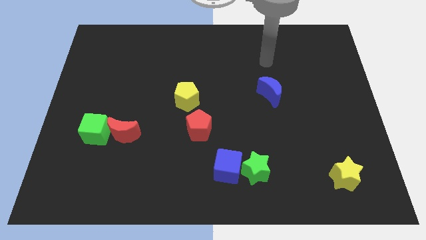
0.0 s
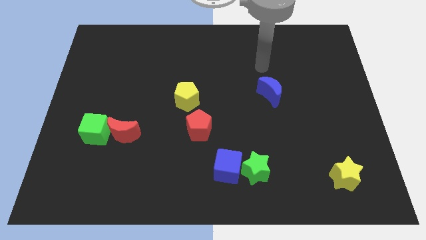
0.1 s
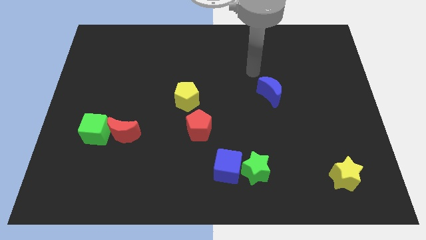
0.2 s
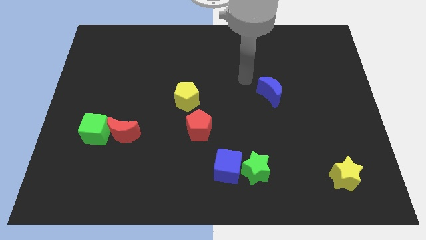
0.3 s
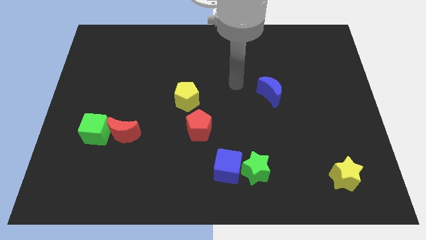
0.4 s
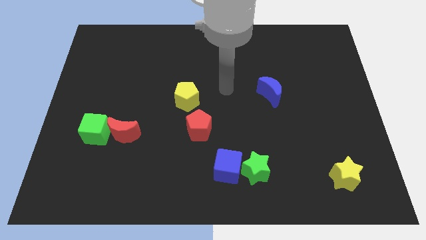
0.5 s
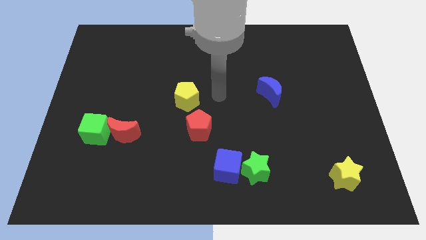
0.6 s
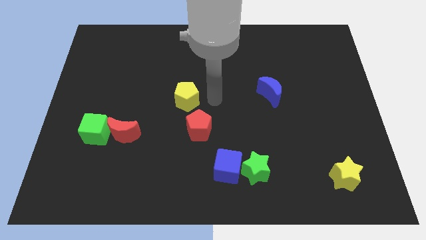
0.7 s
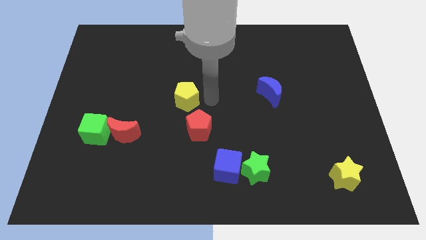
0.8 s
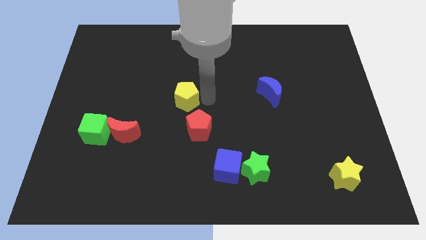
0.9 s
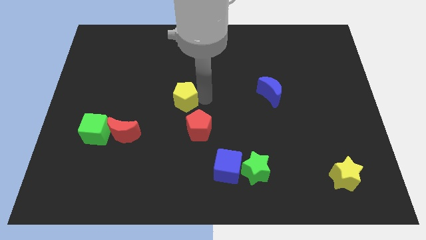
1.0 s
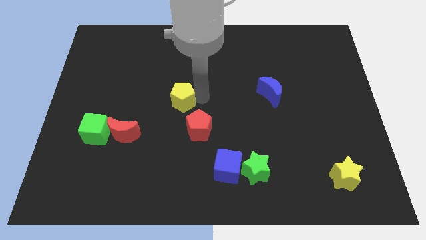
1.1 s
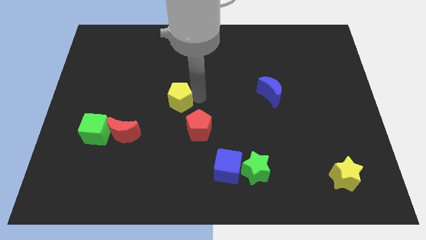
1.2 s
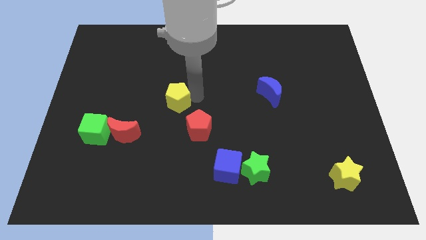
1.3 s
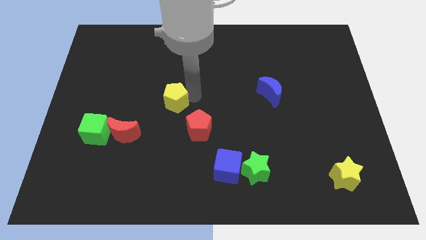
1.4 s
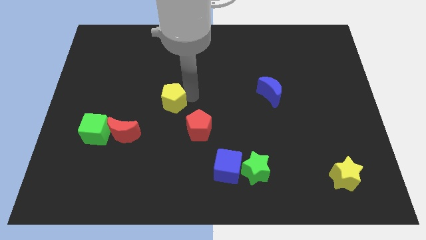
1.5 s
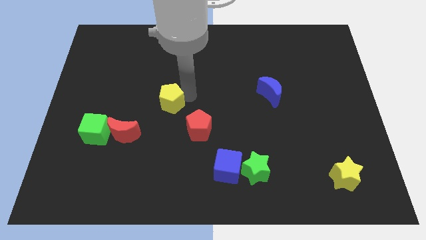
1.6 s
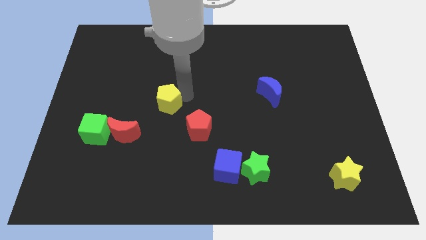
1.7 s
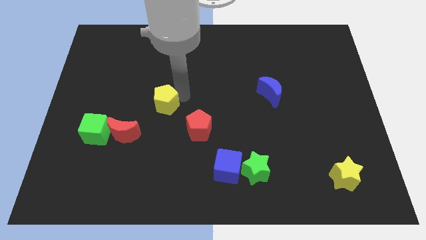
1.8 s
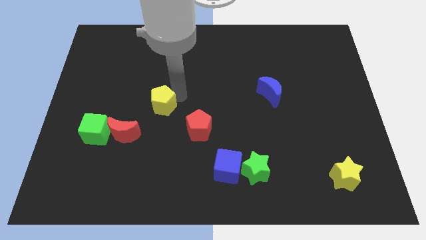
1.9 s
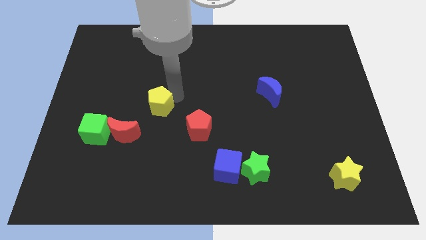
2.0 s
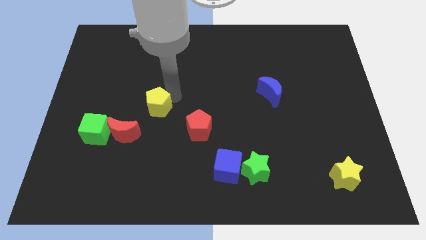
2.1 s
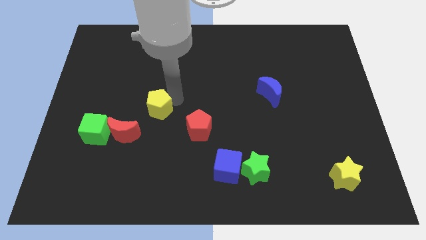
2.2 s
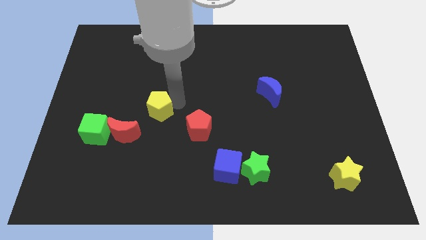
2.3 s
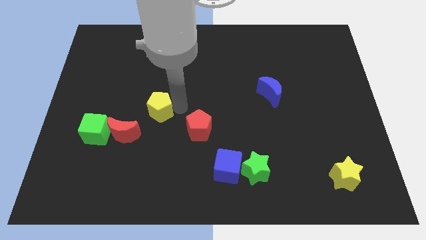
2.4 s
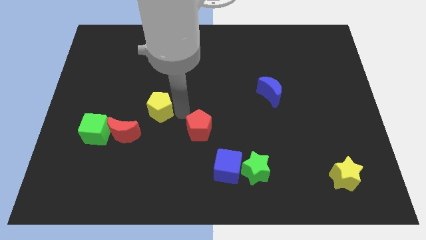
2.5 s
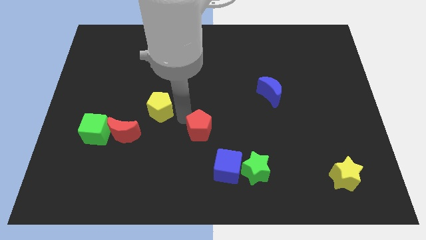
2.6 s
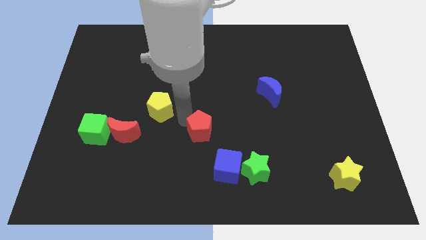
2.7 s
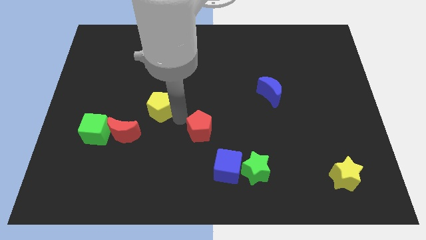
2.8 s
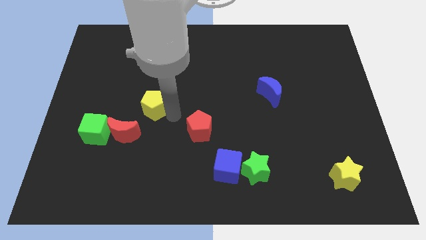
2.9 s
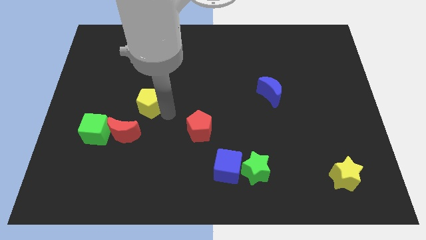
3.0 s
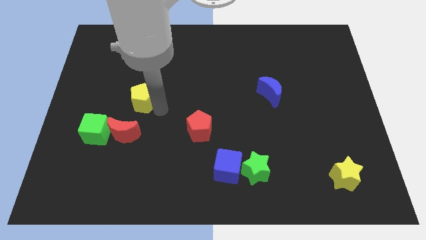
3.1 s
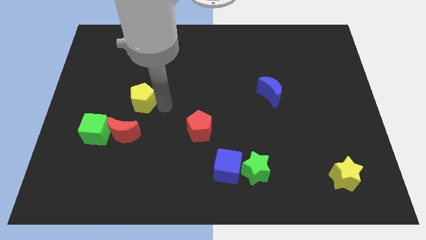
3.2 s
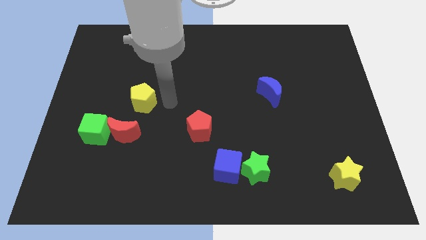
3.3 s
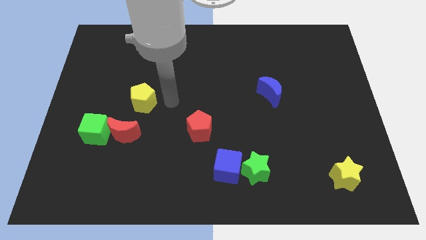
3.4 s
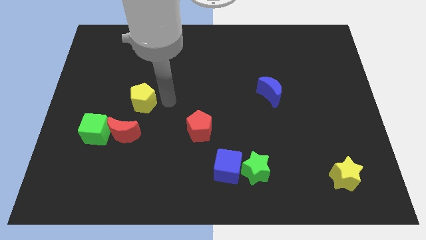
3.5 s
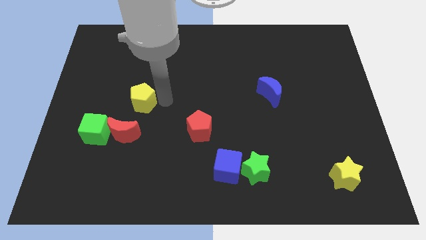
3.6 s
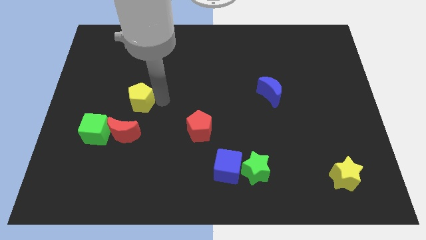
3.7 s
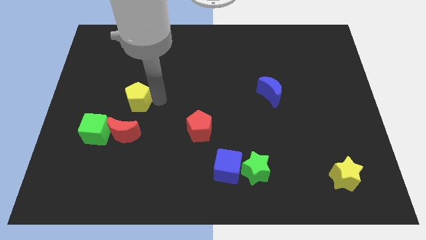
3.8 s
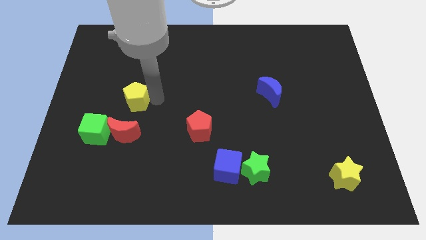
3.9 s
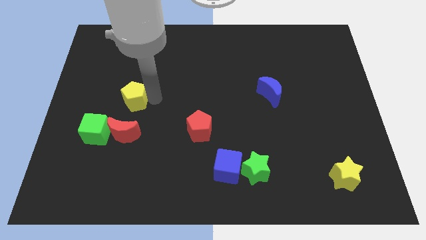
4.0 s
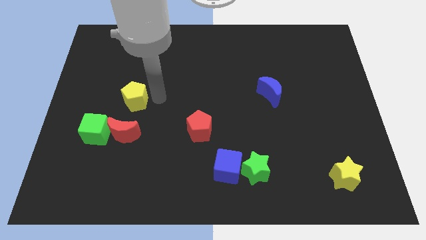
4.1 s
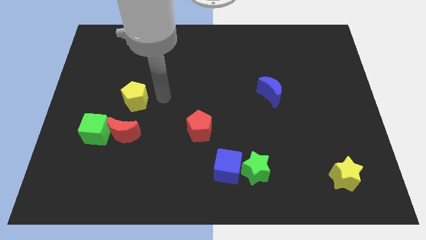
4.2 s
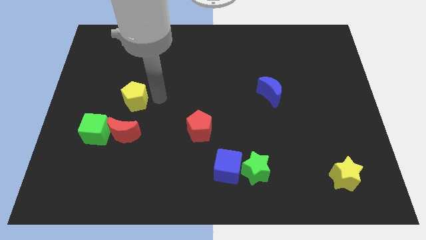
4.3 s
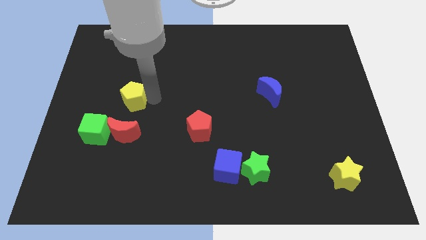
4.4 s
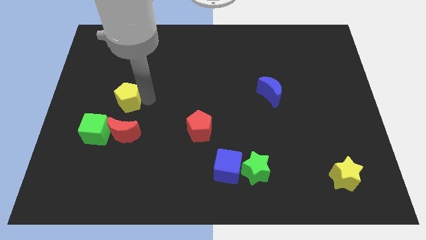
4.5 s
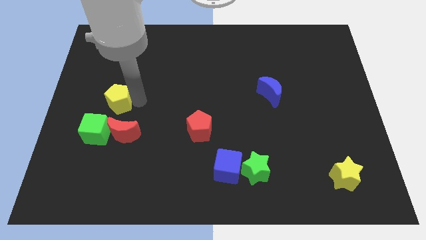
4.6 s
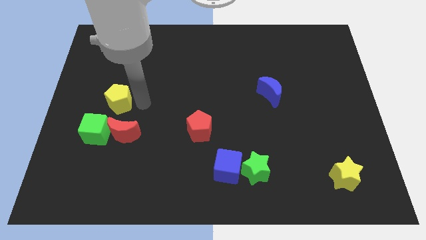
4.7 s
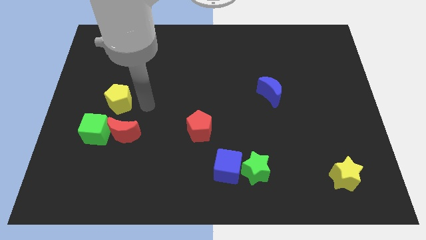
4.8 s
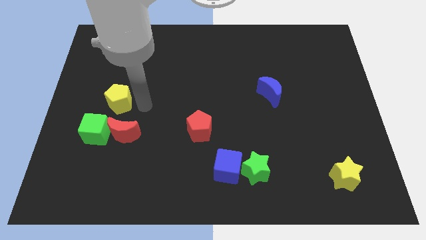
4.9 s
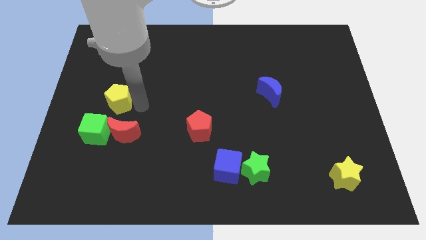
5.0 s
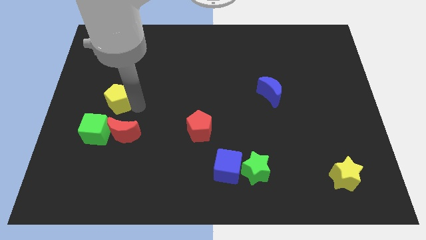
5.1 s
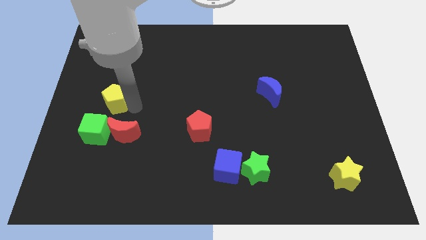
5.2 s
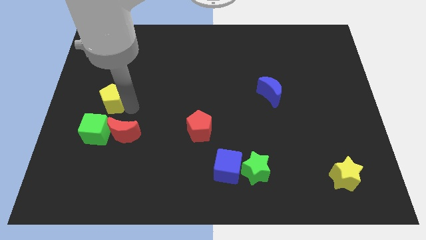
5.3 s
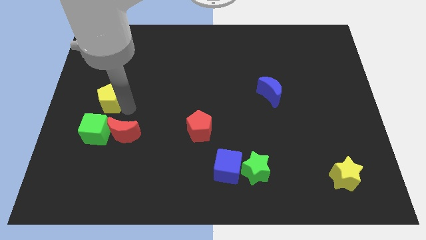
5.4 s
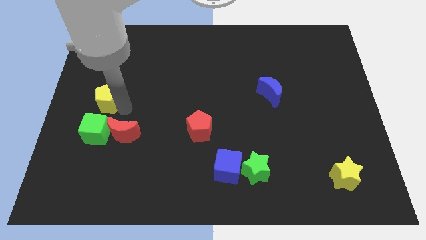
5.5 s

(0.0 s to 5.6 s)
push the yellow pentagon to the left side

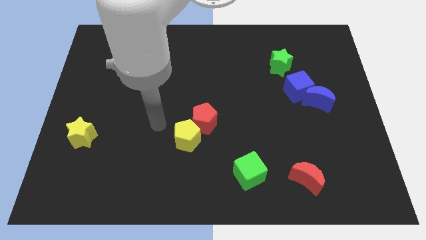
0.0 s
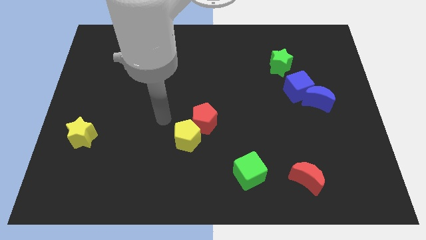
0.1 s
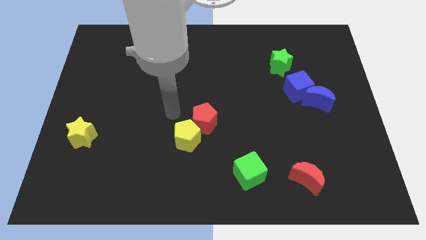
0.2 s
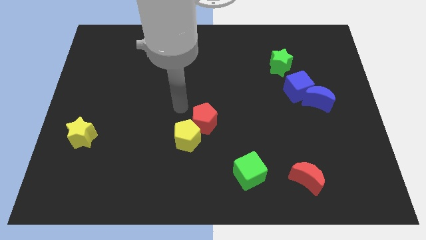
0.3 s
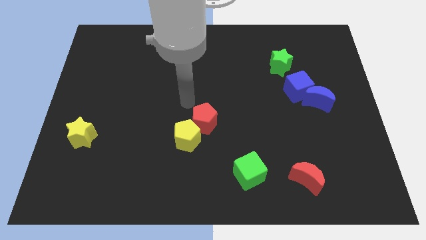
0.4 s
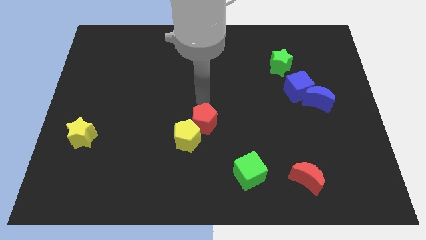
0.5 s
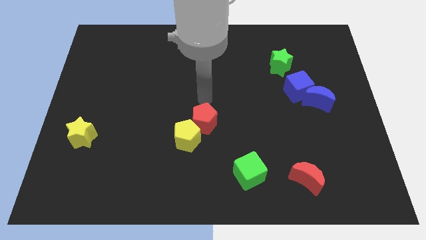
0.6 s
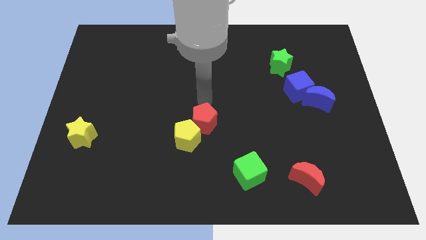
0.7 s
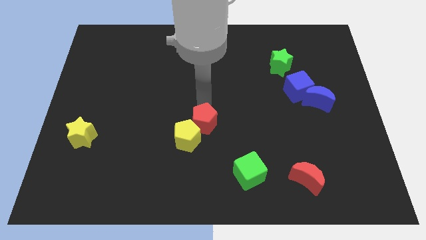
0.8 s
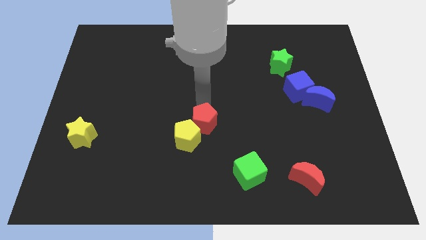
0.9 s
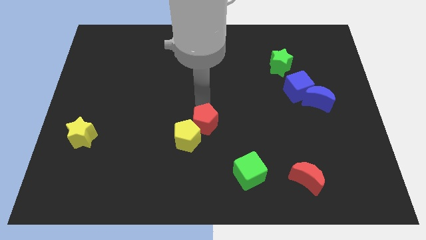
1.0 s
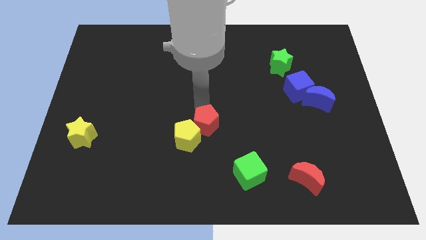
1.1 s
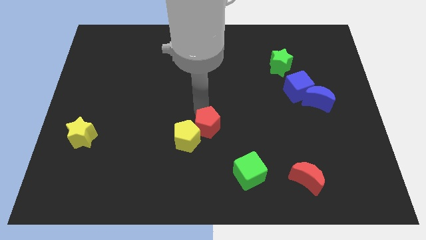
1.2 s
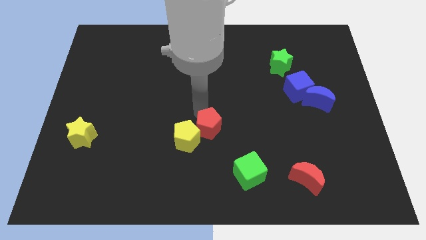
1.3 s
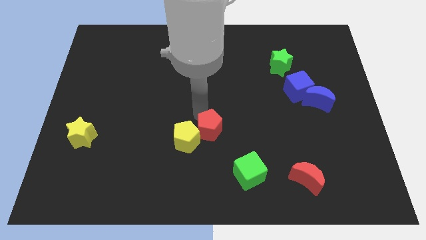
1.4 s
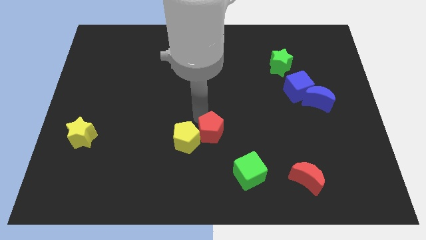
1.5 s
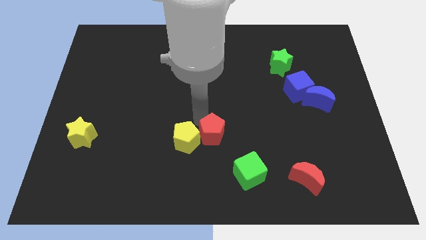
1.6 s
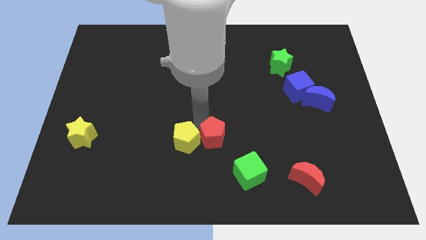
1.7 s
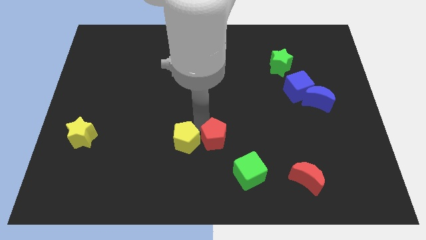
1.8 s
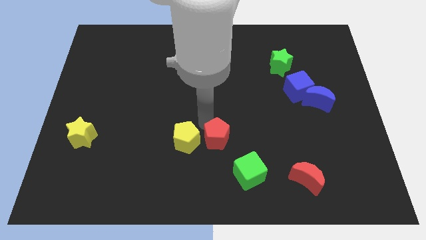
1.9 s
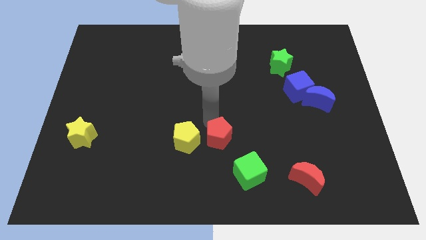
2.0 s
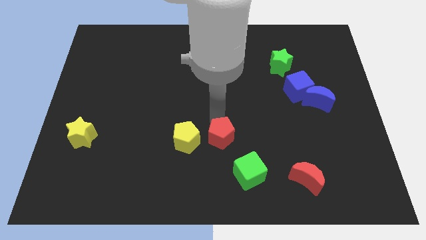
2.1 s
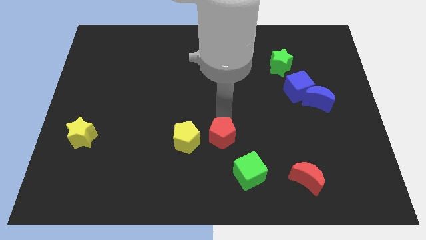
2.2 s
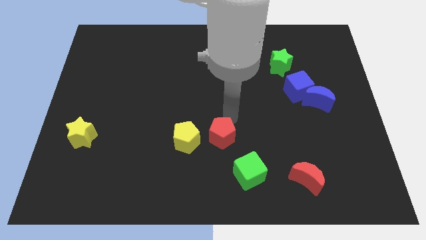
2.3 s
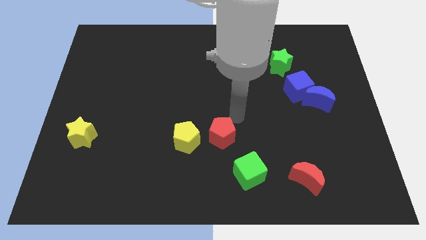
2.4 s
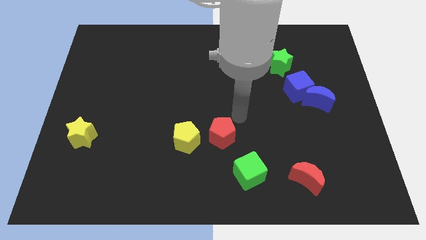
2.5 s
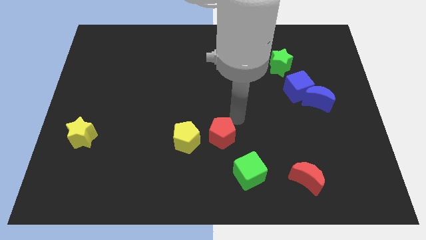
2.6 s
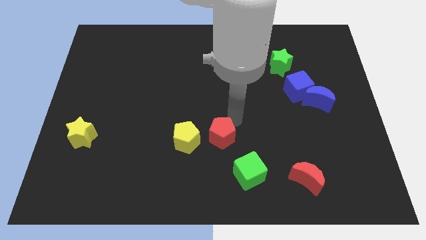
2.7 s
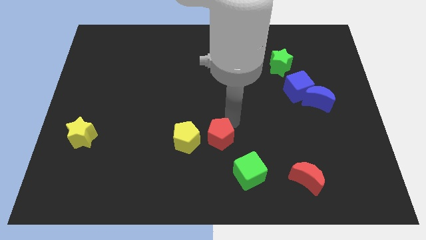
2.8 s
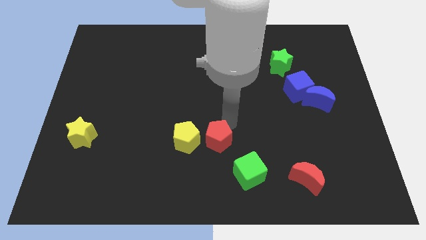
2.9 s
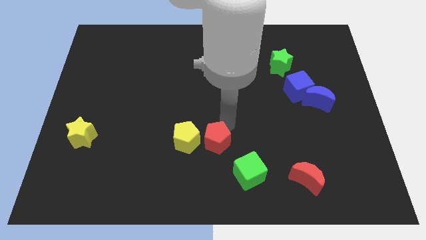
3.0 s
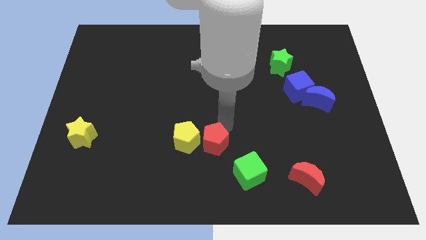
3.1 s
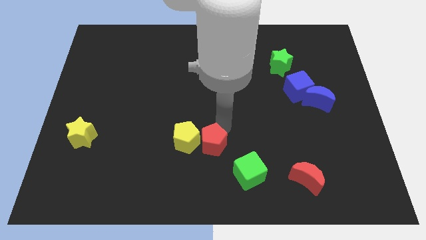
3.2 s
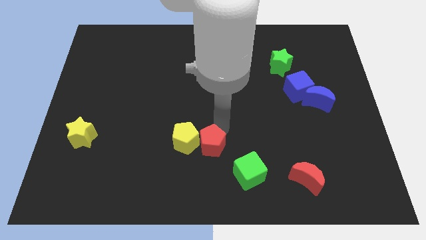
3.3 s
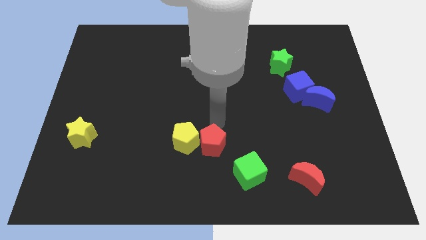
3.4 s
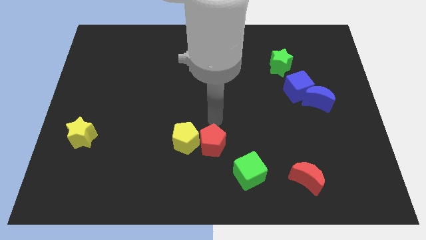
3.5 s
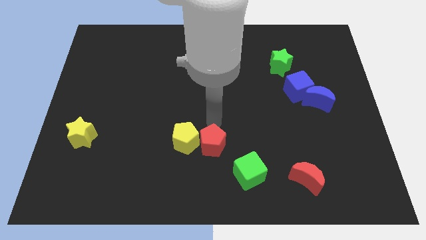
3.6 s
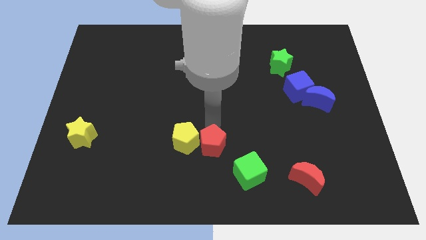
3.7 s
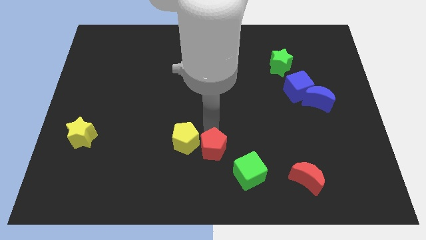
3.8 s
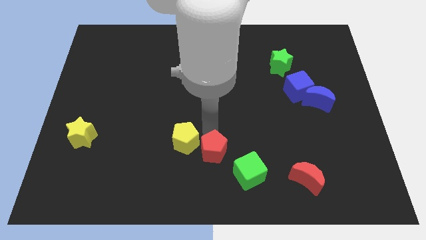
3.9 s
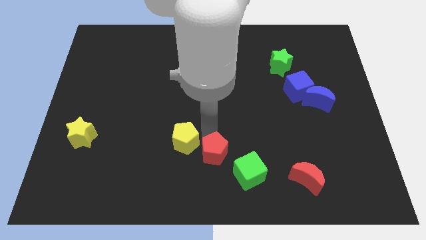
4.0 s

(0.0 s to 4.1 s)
slide the red pentagon to the bottom side
